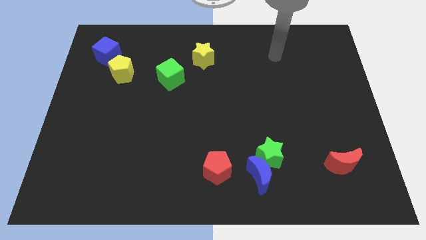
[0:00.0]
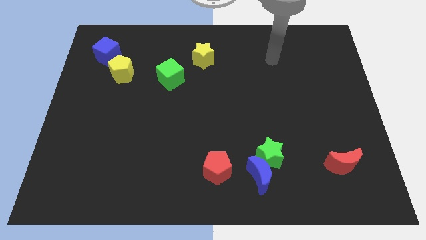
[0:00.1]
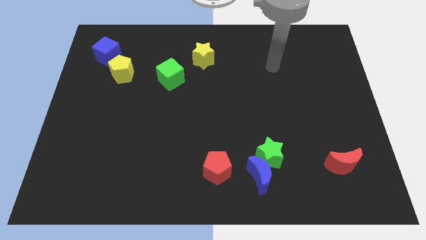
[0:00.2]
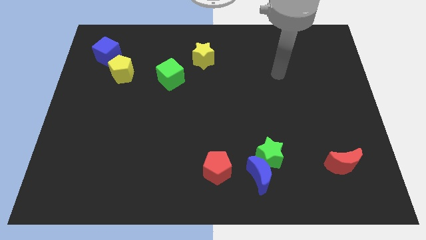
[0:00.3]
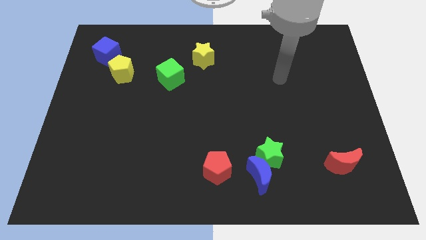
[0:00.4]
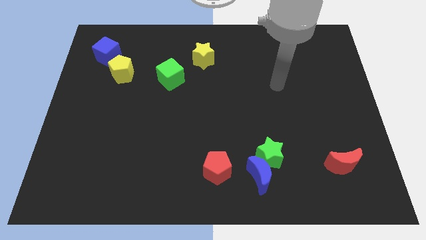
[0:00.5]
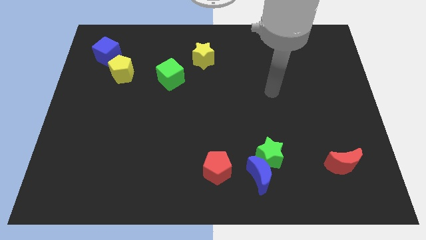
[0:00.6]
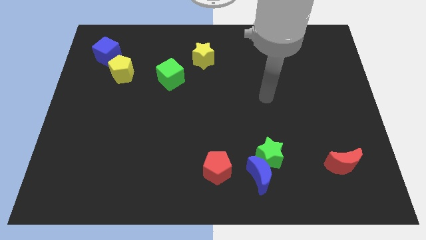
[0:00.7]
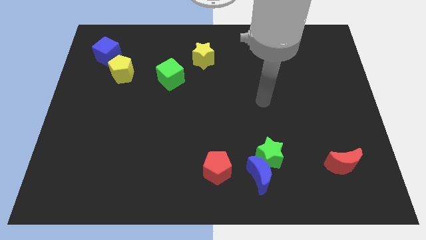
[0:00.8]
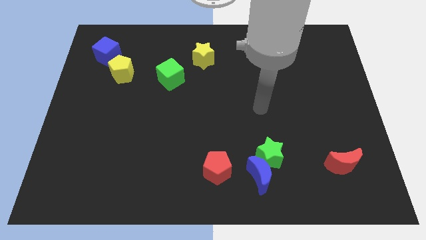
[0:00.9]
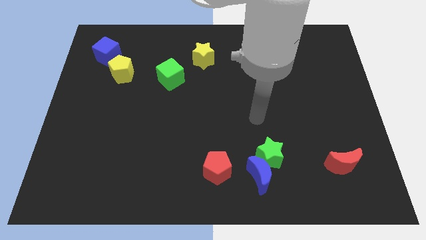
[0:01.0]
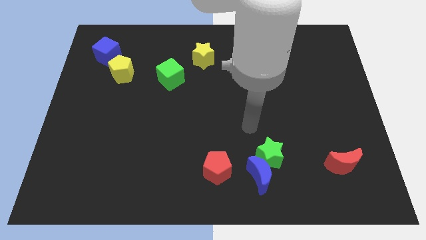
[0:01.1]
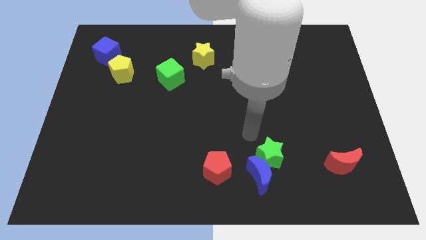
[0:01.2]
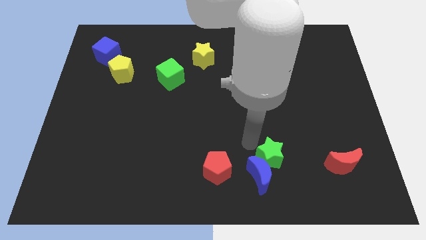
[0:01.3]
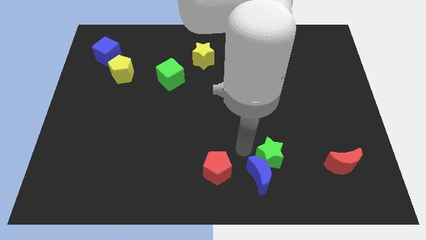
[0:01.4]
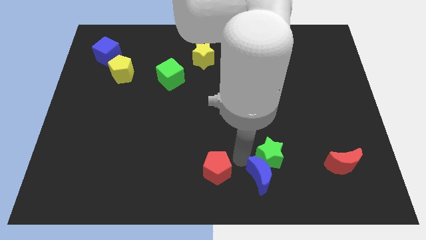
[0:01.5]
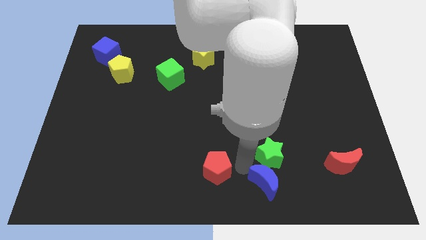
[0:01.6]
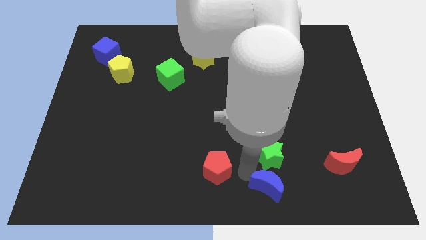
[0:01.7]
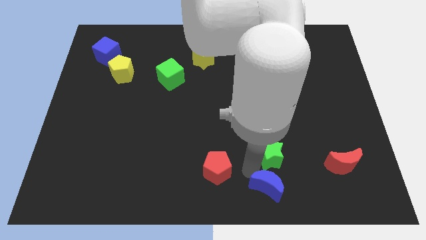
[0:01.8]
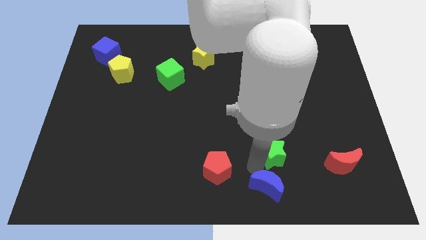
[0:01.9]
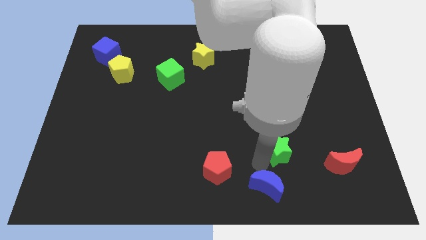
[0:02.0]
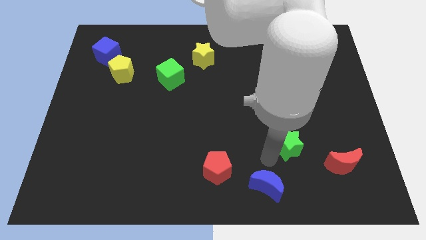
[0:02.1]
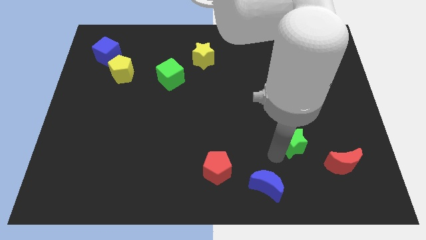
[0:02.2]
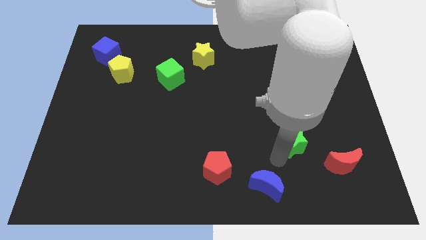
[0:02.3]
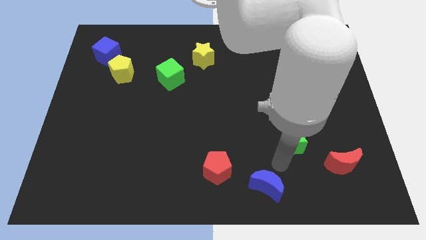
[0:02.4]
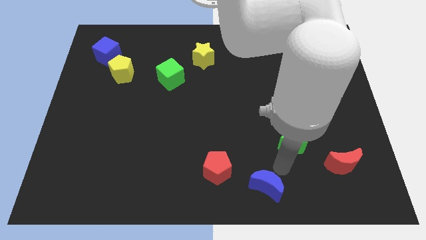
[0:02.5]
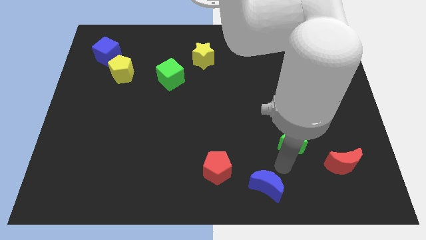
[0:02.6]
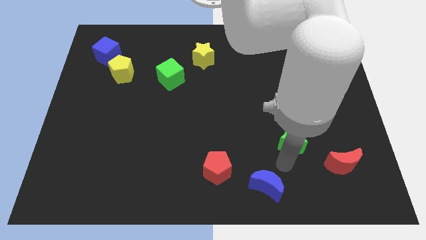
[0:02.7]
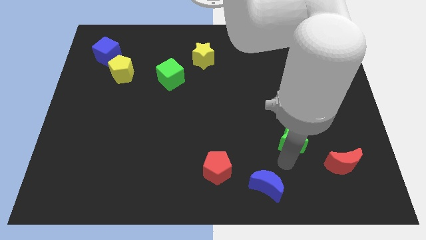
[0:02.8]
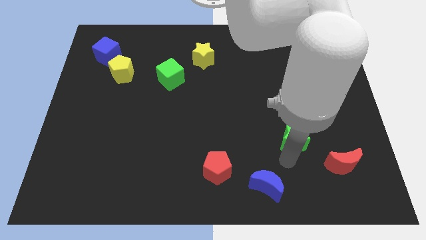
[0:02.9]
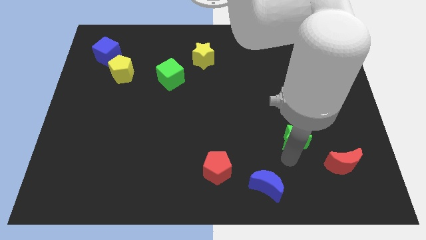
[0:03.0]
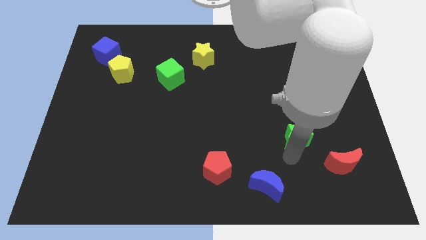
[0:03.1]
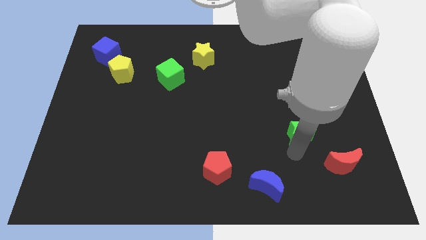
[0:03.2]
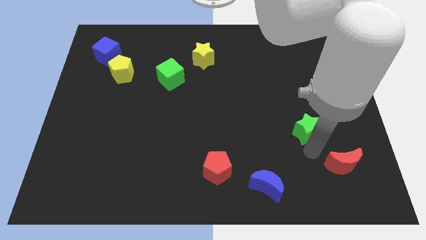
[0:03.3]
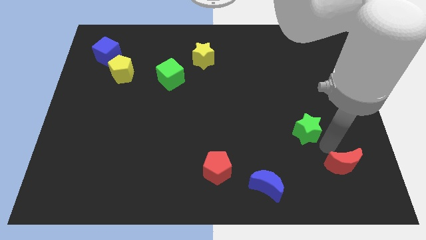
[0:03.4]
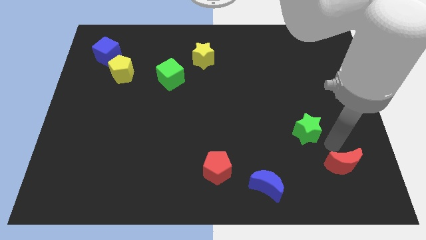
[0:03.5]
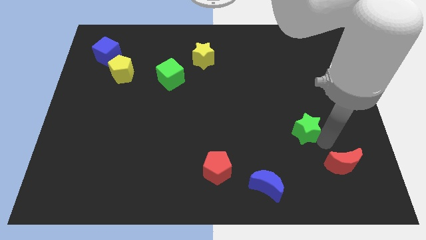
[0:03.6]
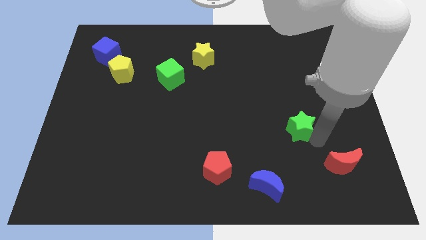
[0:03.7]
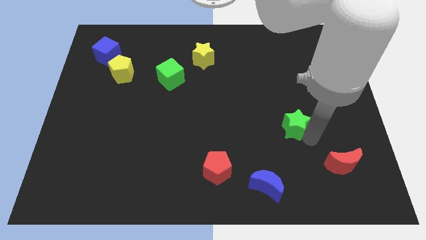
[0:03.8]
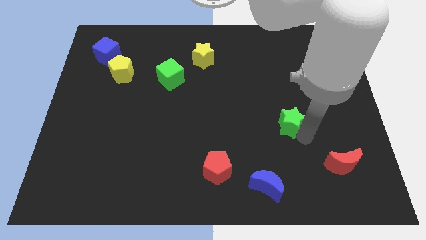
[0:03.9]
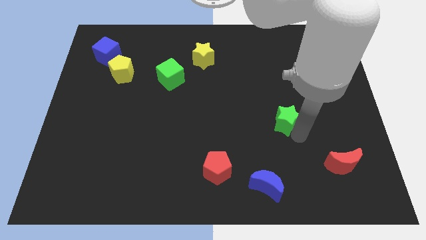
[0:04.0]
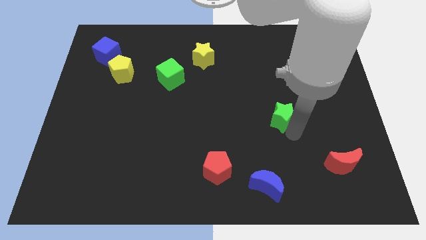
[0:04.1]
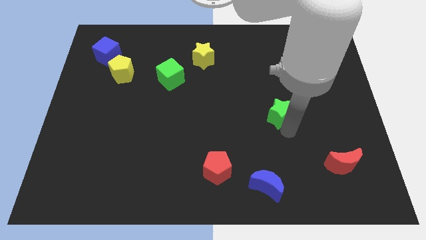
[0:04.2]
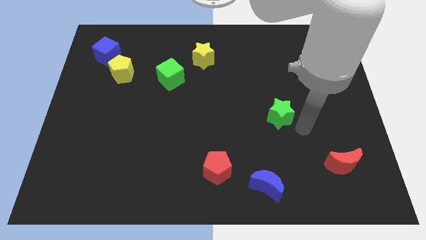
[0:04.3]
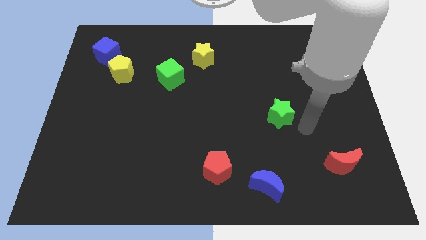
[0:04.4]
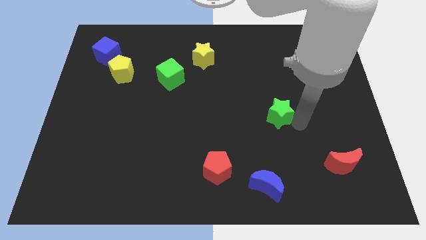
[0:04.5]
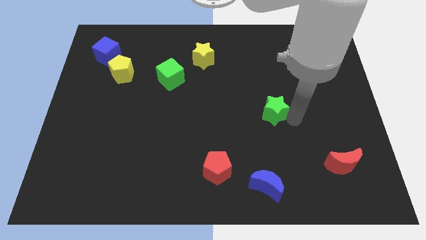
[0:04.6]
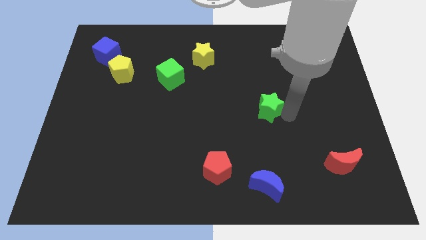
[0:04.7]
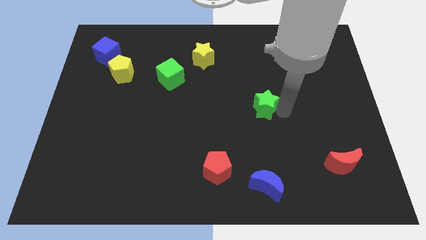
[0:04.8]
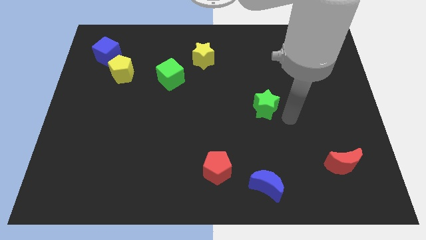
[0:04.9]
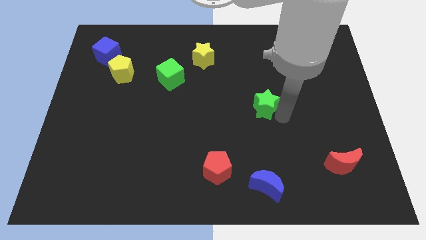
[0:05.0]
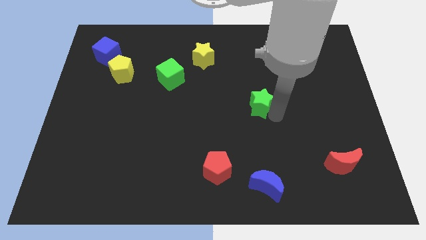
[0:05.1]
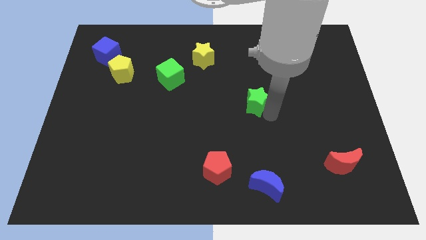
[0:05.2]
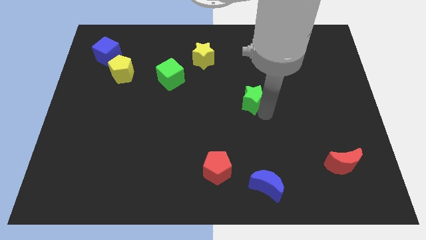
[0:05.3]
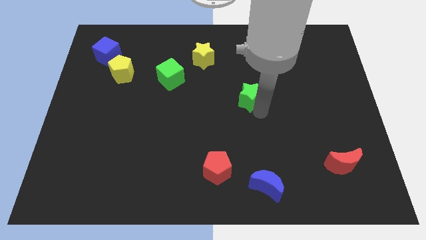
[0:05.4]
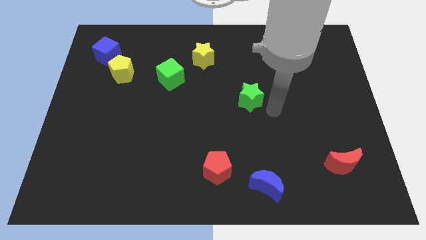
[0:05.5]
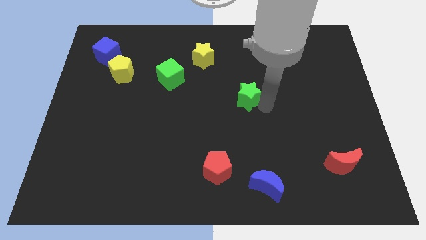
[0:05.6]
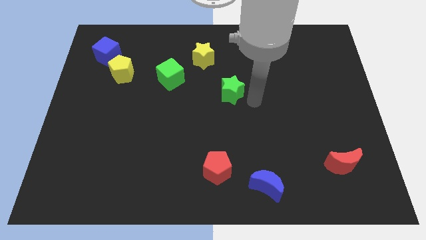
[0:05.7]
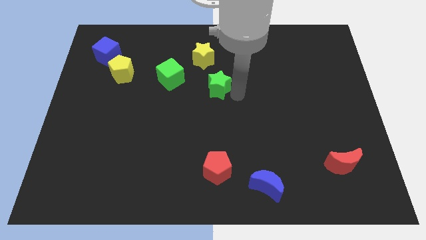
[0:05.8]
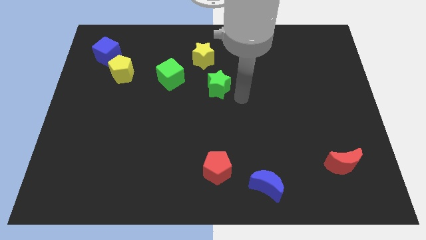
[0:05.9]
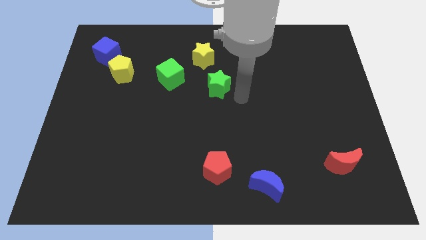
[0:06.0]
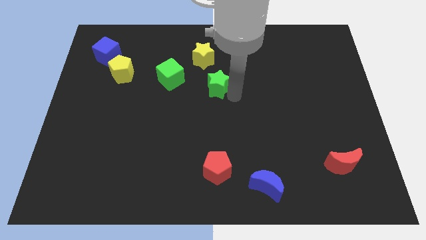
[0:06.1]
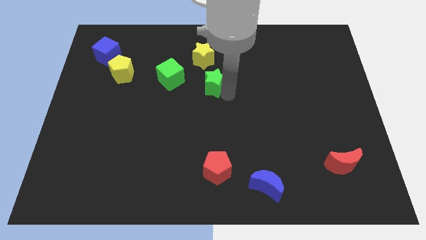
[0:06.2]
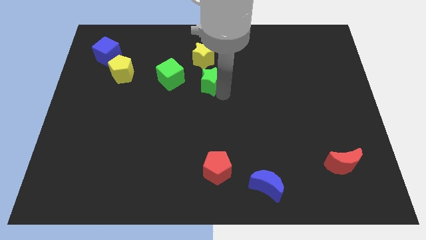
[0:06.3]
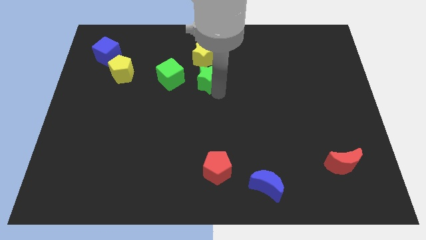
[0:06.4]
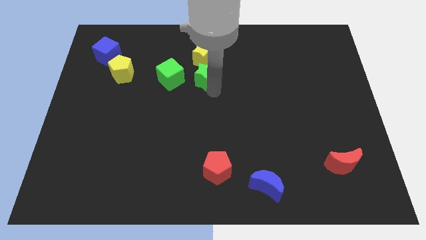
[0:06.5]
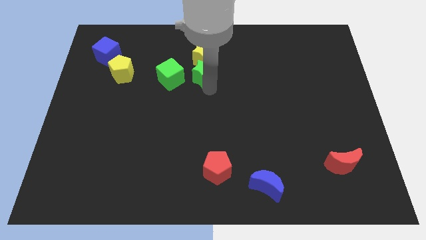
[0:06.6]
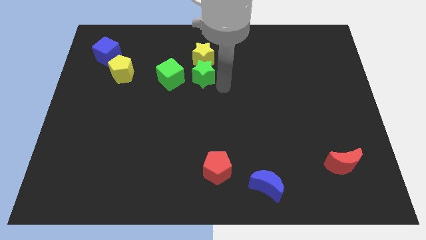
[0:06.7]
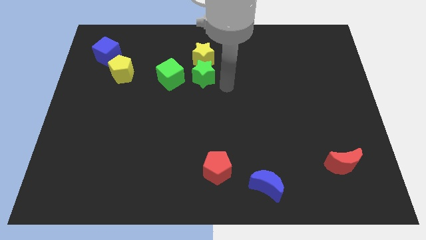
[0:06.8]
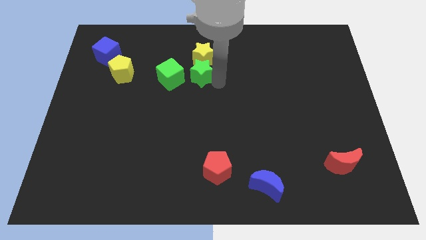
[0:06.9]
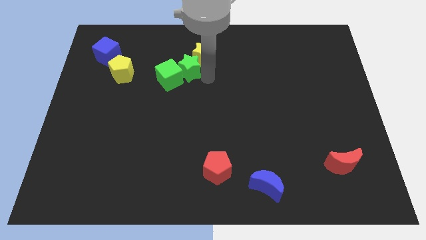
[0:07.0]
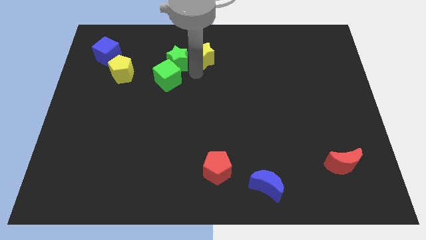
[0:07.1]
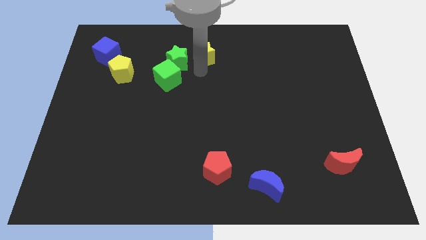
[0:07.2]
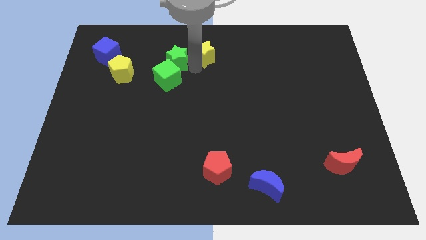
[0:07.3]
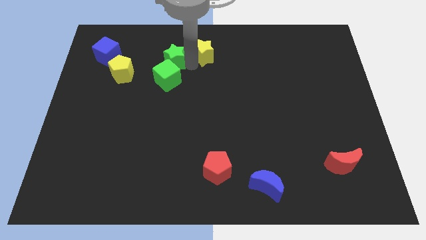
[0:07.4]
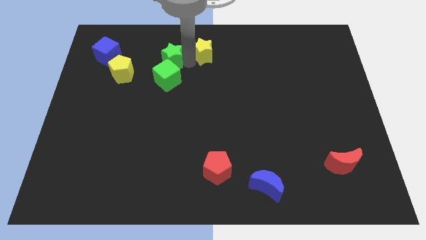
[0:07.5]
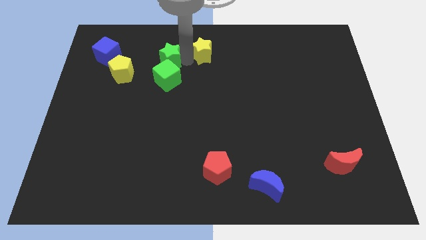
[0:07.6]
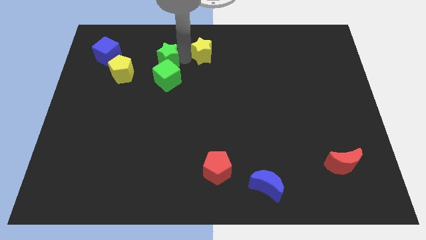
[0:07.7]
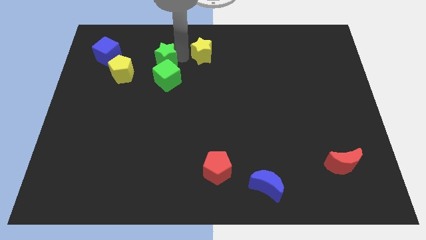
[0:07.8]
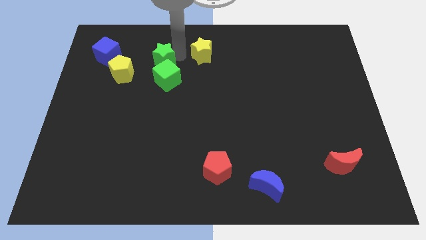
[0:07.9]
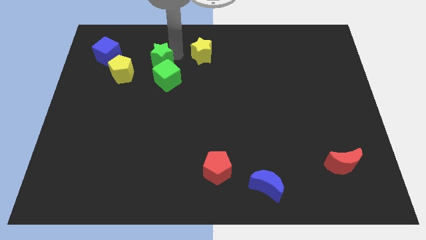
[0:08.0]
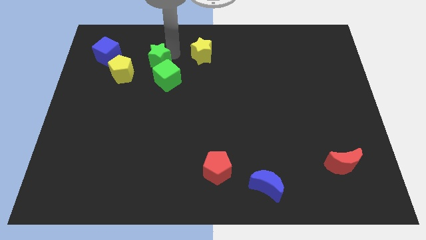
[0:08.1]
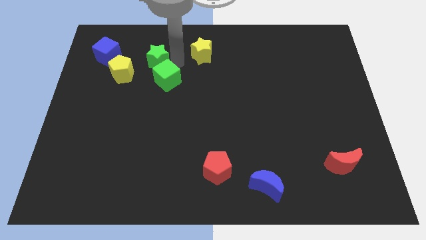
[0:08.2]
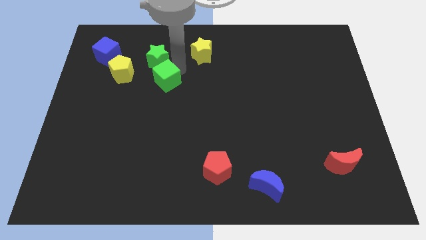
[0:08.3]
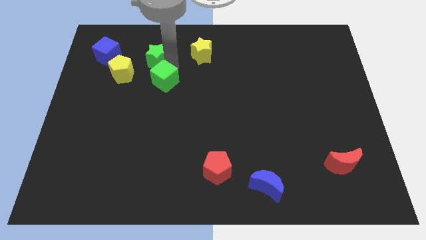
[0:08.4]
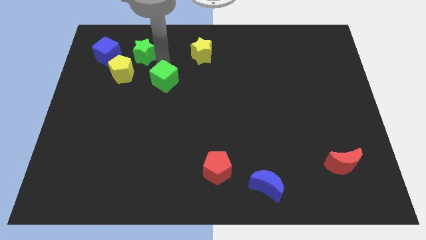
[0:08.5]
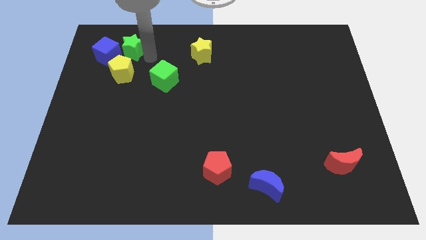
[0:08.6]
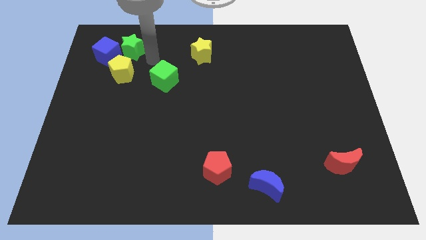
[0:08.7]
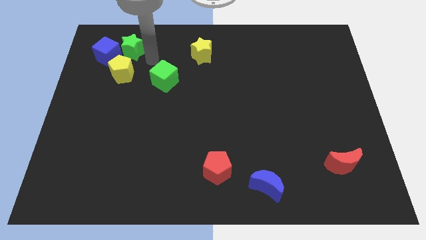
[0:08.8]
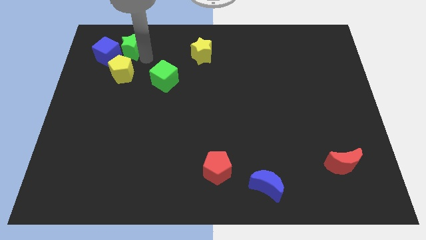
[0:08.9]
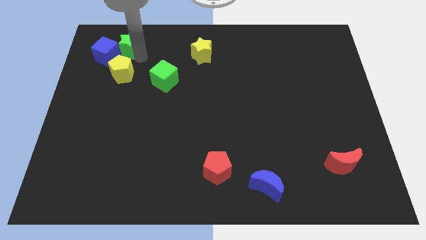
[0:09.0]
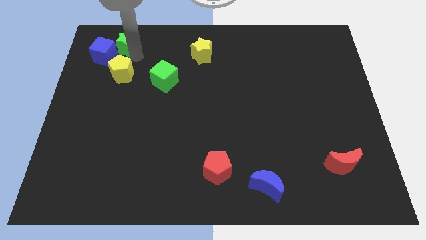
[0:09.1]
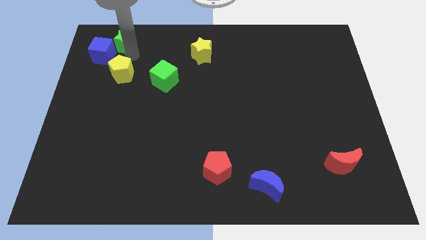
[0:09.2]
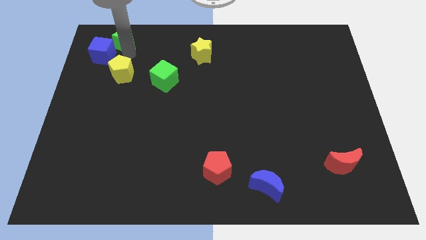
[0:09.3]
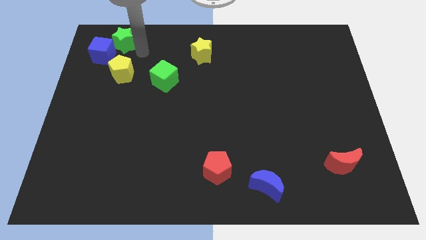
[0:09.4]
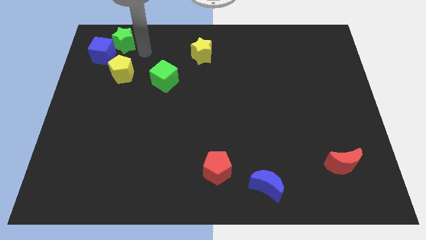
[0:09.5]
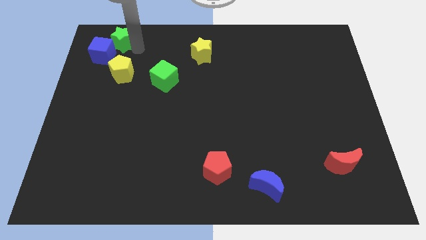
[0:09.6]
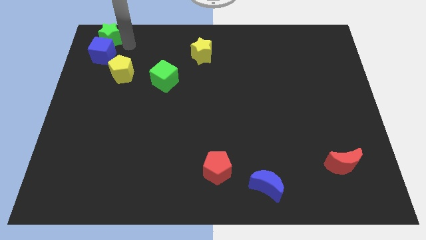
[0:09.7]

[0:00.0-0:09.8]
move the green star to the top left of the board
